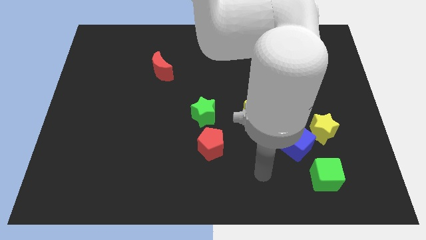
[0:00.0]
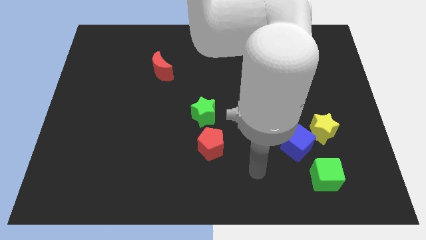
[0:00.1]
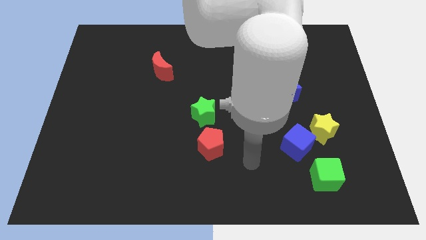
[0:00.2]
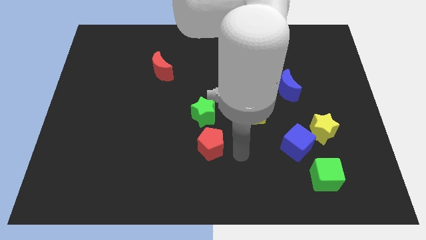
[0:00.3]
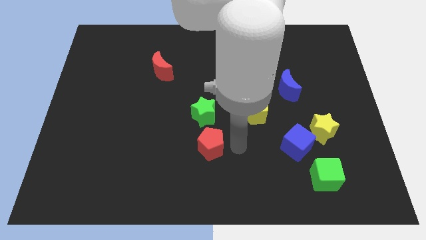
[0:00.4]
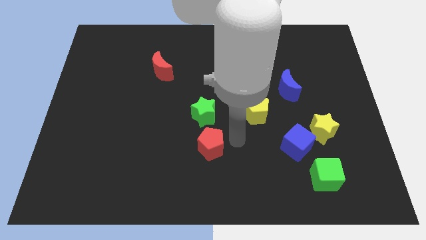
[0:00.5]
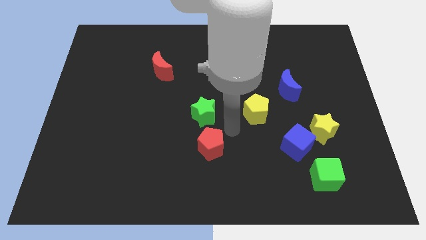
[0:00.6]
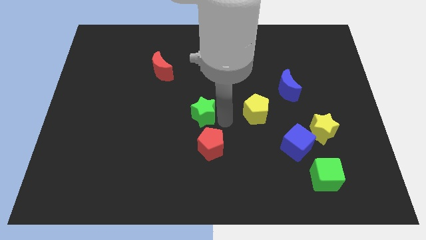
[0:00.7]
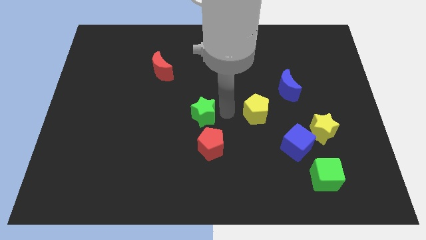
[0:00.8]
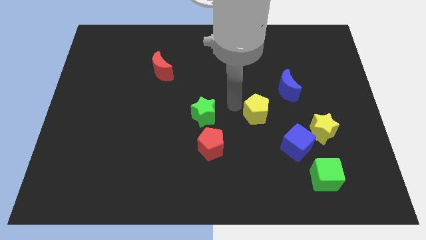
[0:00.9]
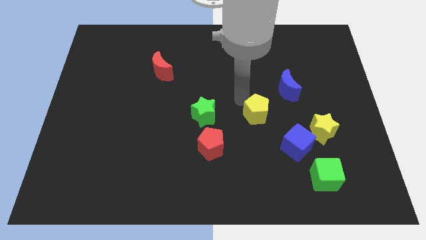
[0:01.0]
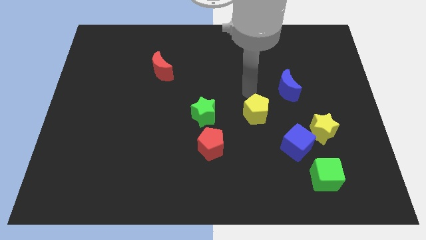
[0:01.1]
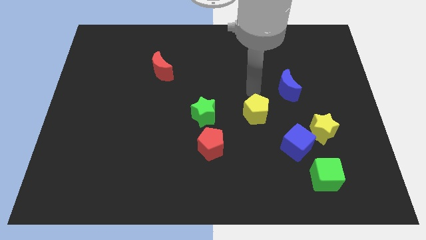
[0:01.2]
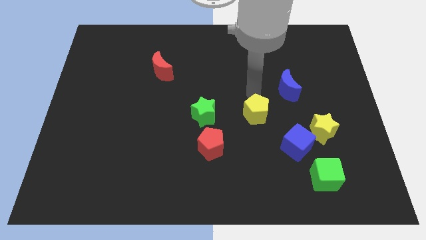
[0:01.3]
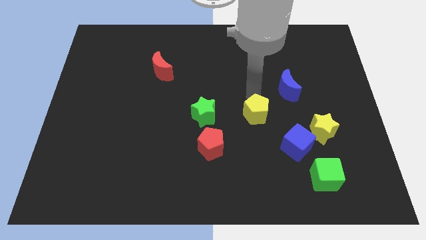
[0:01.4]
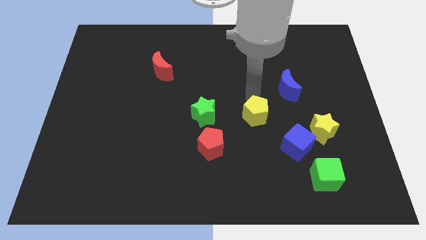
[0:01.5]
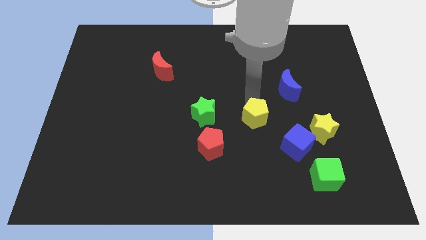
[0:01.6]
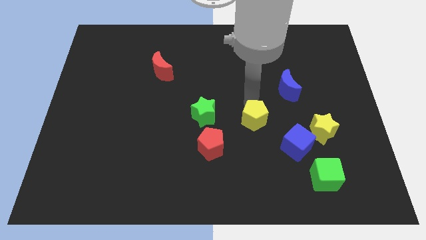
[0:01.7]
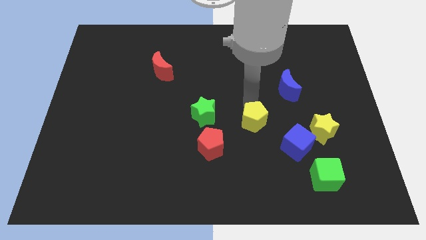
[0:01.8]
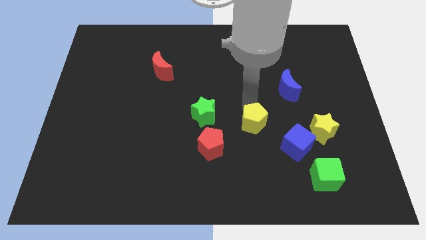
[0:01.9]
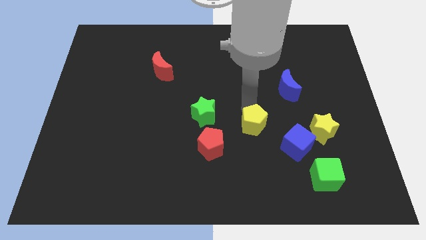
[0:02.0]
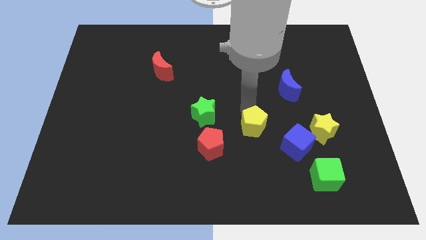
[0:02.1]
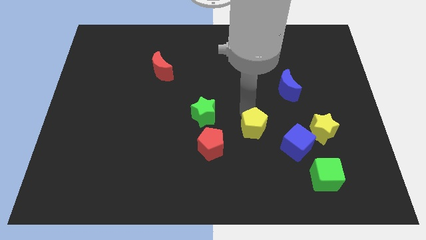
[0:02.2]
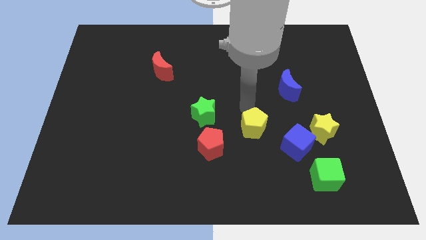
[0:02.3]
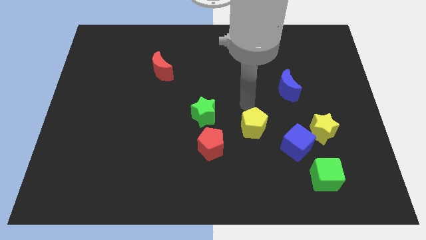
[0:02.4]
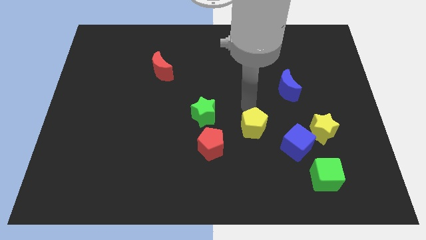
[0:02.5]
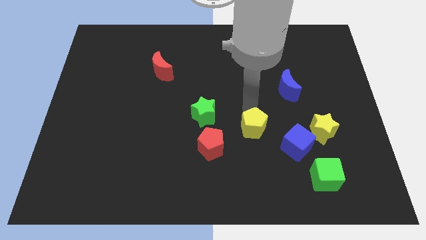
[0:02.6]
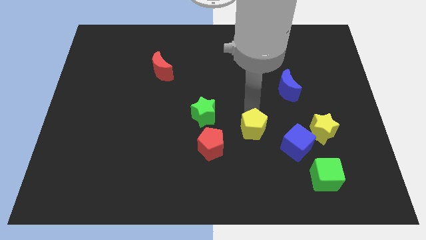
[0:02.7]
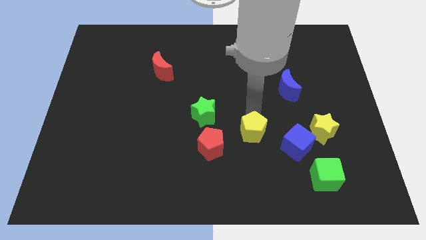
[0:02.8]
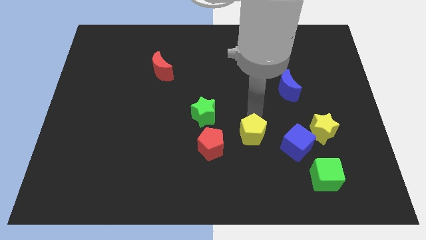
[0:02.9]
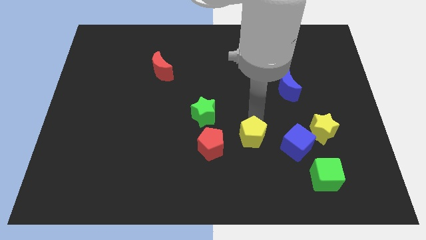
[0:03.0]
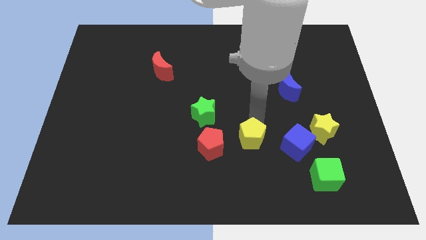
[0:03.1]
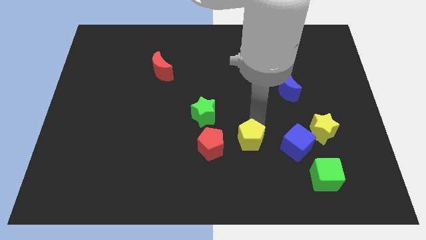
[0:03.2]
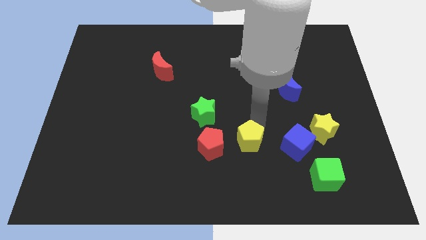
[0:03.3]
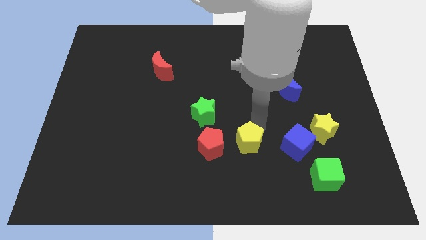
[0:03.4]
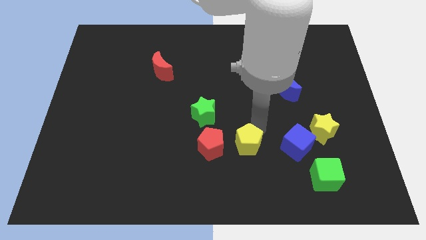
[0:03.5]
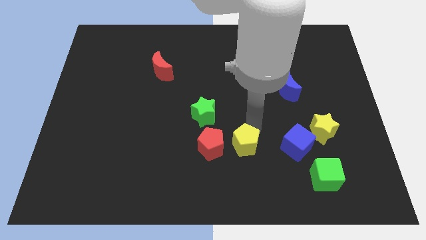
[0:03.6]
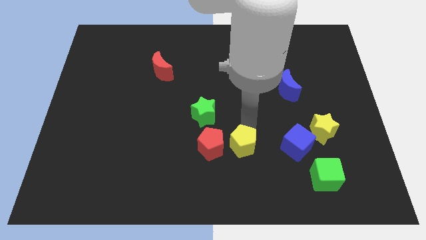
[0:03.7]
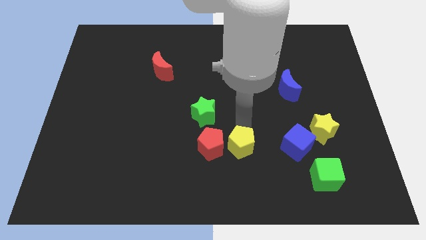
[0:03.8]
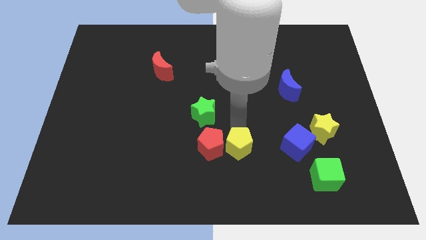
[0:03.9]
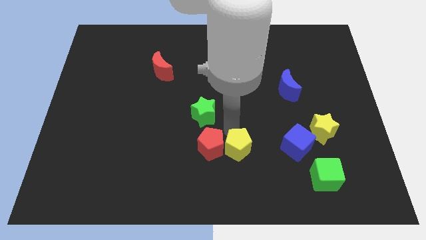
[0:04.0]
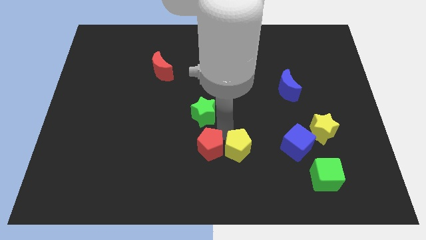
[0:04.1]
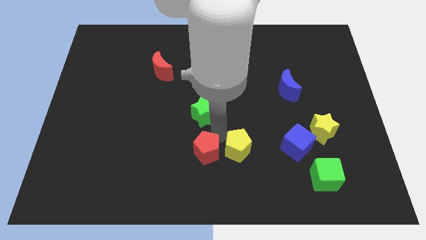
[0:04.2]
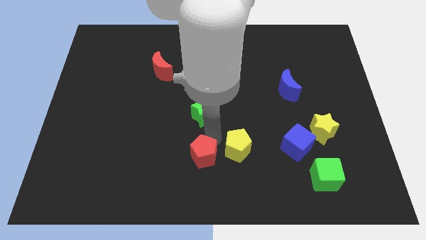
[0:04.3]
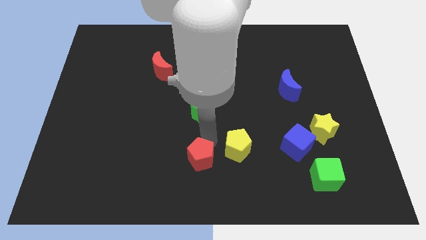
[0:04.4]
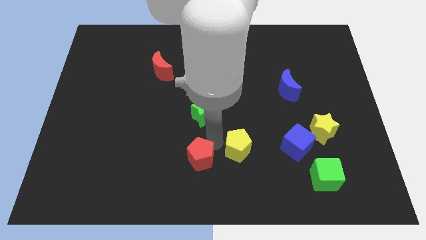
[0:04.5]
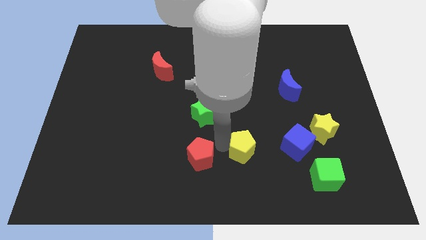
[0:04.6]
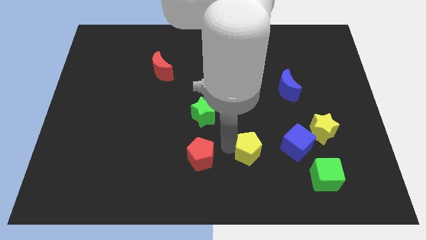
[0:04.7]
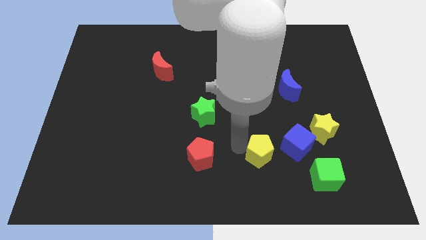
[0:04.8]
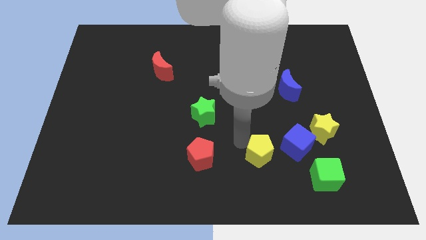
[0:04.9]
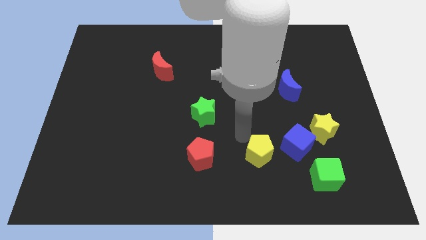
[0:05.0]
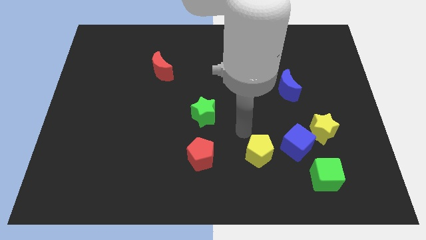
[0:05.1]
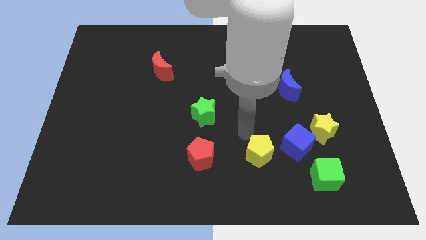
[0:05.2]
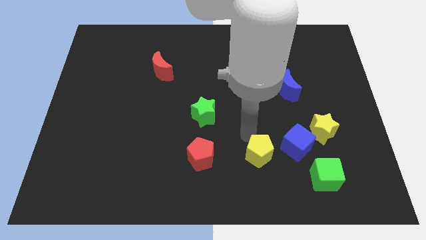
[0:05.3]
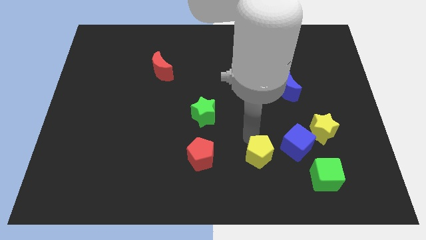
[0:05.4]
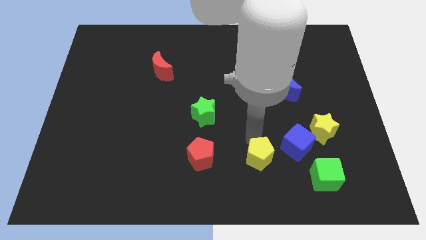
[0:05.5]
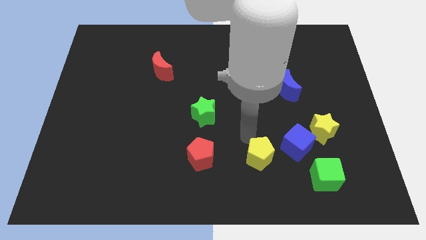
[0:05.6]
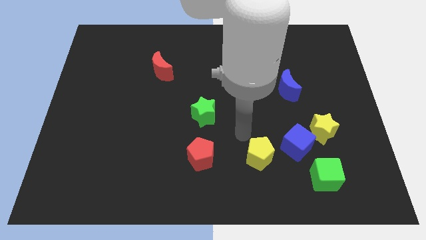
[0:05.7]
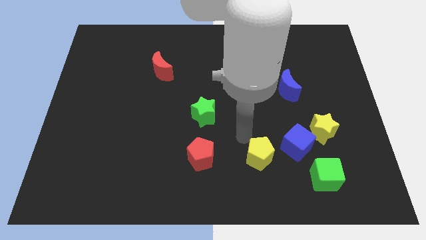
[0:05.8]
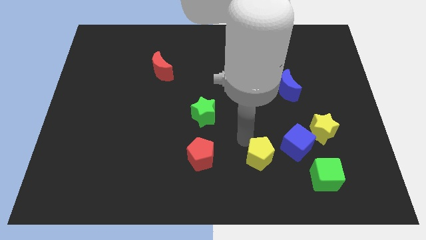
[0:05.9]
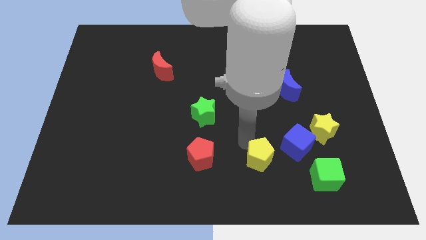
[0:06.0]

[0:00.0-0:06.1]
put the yellow pentagon to the left of the green cube
